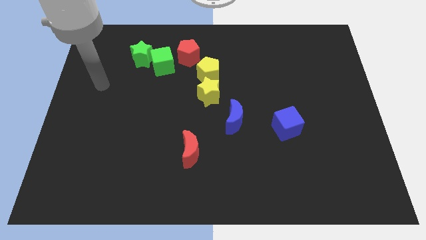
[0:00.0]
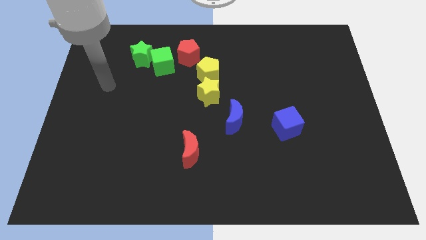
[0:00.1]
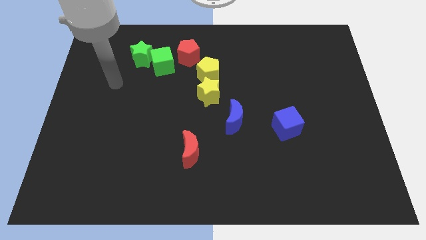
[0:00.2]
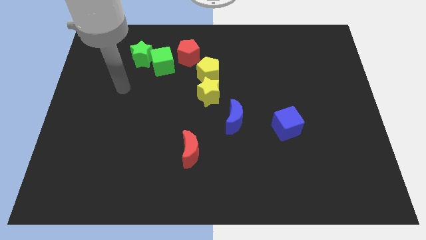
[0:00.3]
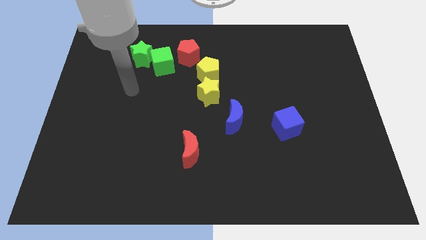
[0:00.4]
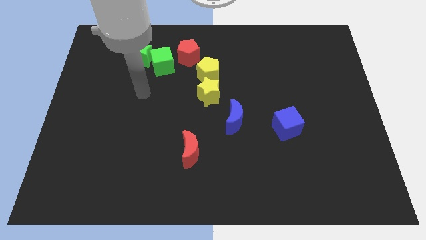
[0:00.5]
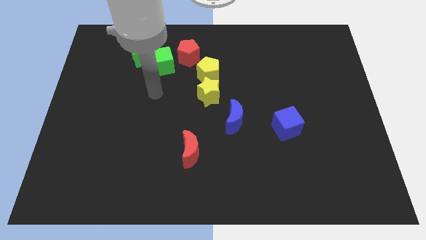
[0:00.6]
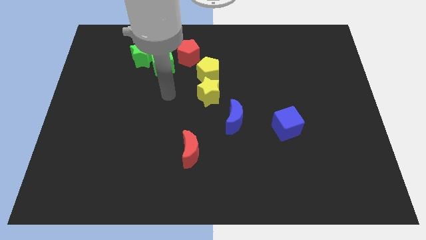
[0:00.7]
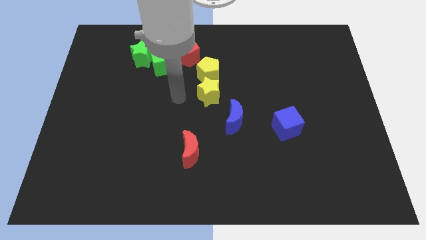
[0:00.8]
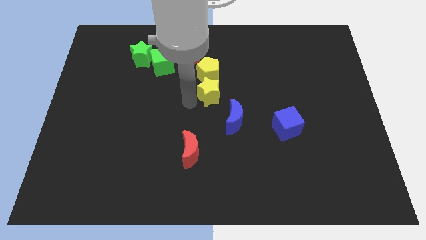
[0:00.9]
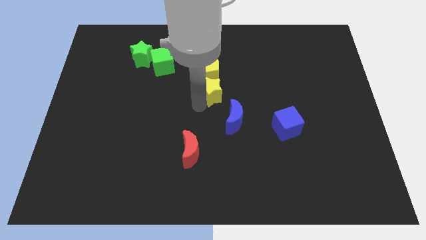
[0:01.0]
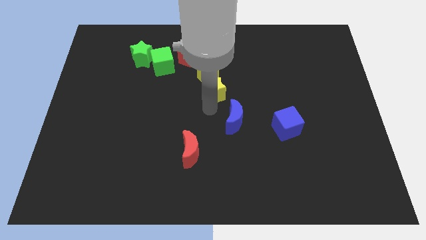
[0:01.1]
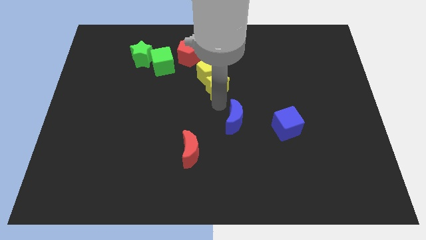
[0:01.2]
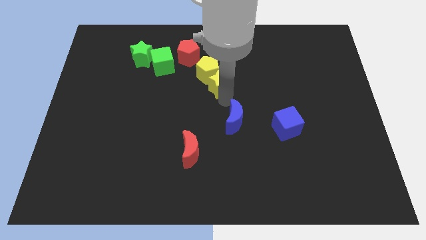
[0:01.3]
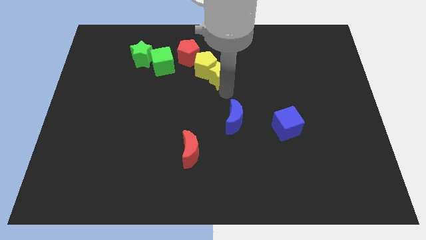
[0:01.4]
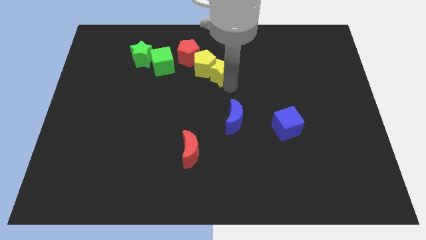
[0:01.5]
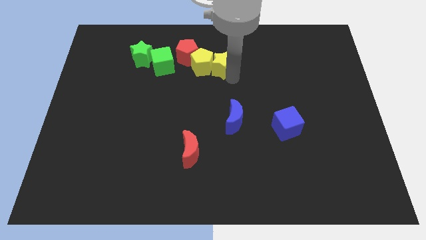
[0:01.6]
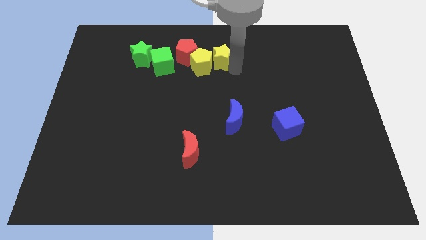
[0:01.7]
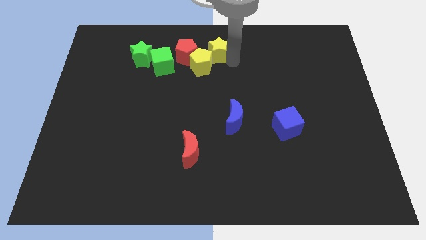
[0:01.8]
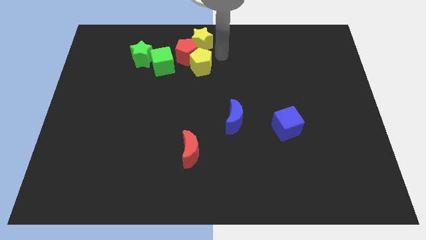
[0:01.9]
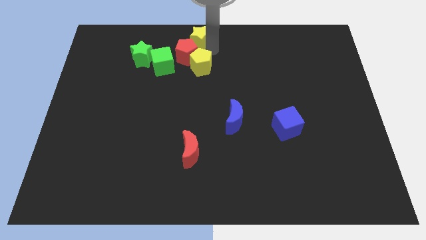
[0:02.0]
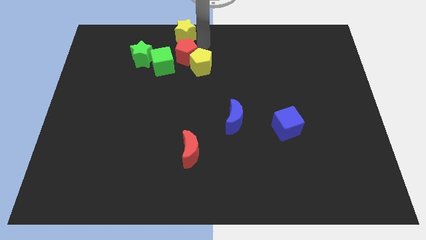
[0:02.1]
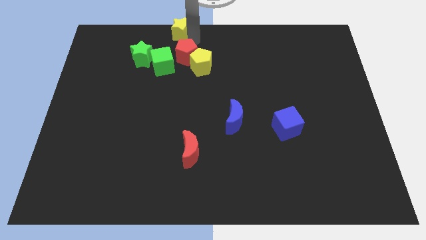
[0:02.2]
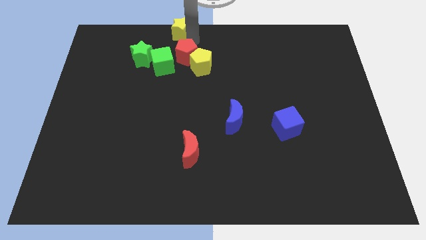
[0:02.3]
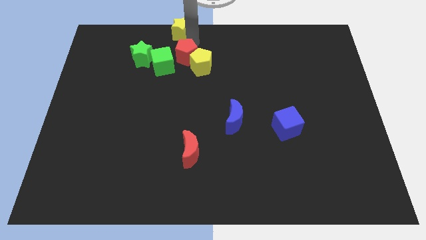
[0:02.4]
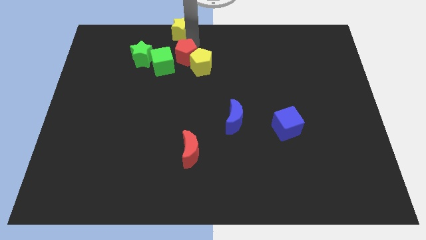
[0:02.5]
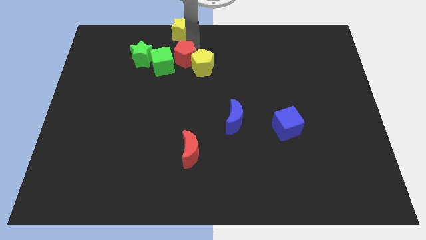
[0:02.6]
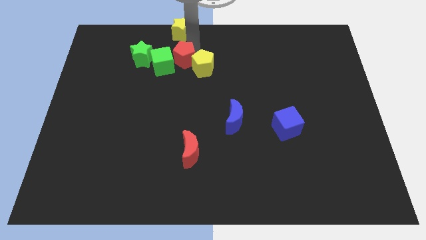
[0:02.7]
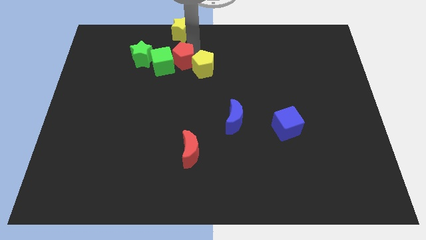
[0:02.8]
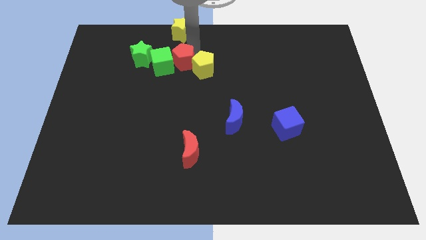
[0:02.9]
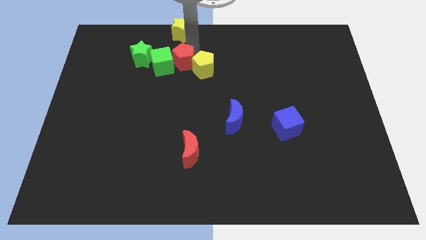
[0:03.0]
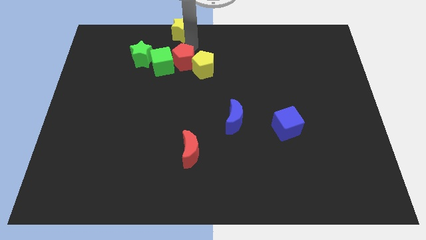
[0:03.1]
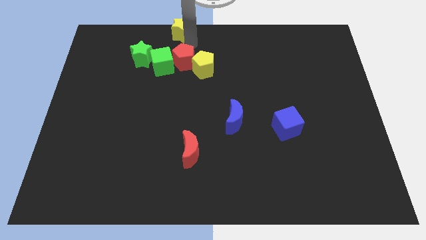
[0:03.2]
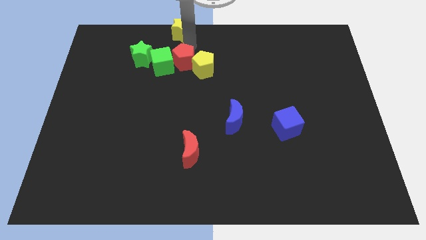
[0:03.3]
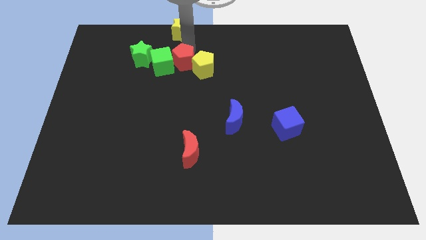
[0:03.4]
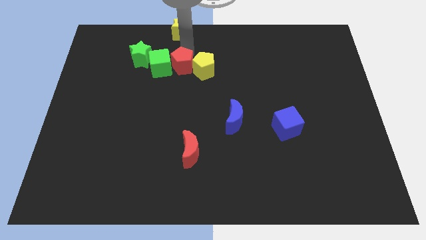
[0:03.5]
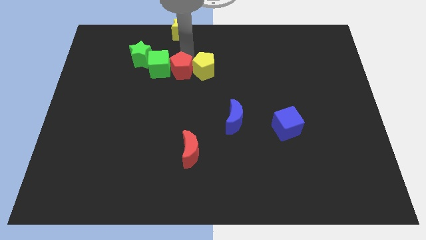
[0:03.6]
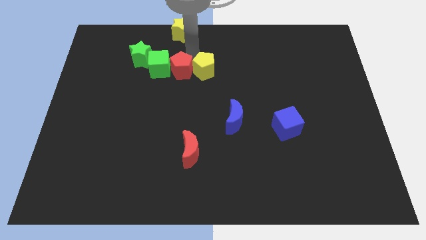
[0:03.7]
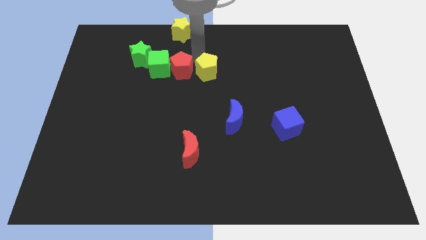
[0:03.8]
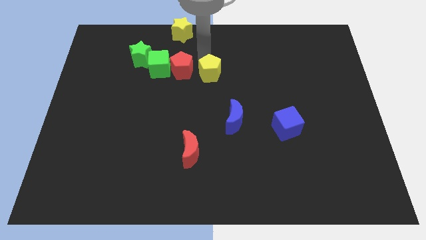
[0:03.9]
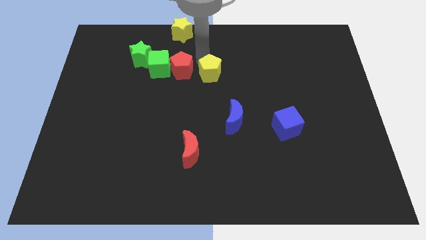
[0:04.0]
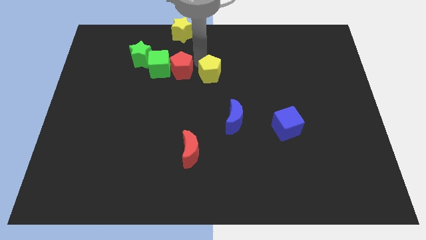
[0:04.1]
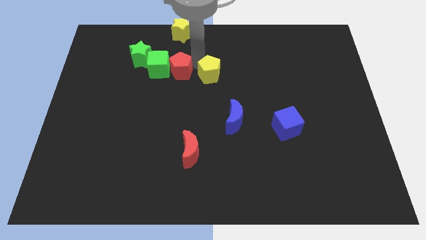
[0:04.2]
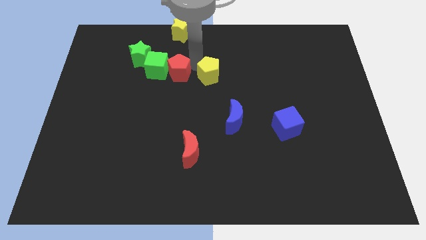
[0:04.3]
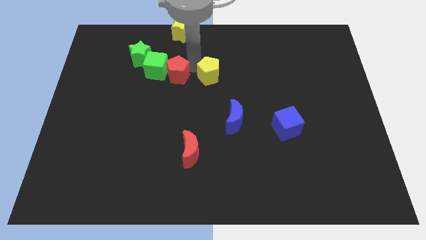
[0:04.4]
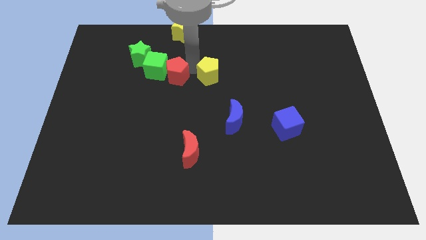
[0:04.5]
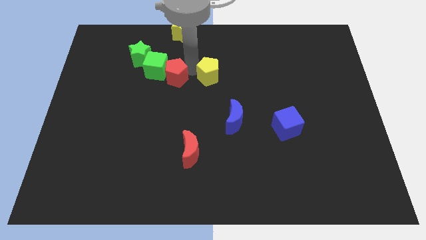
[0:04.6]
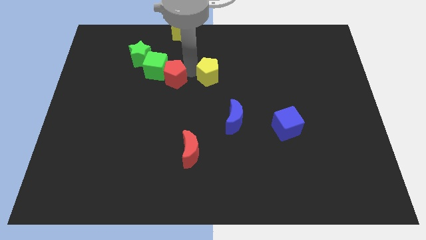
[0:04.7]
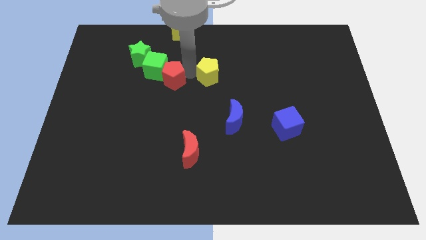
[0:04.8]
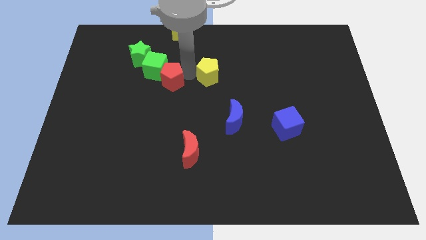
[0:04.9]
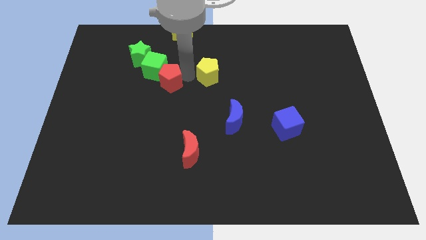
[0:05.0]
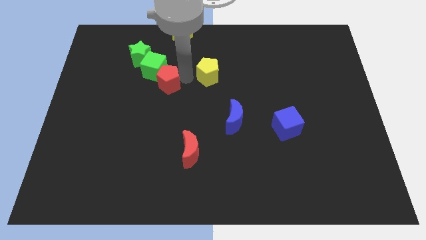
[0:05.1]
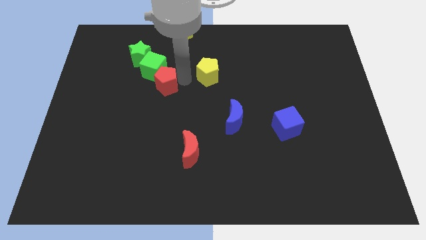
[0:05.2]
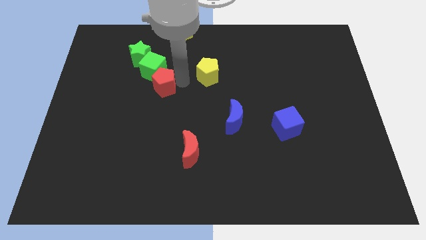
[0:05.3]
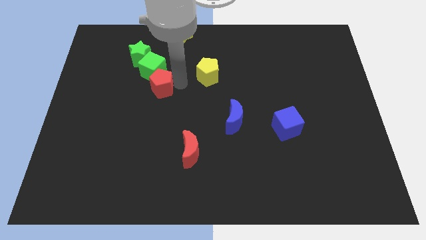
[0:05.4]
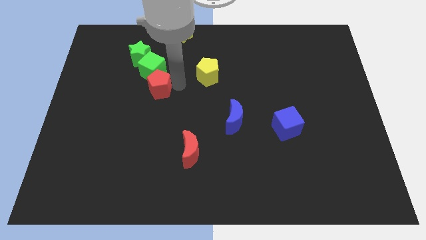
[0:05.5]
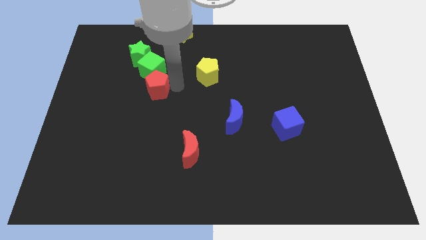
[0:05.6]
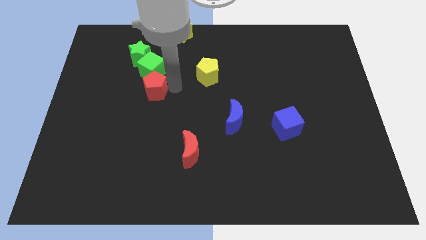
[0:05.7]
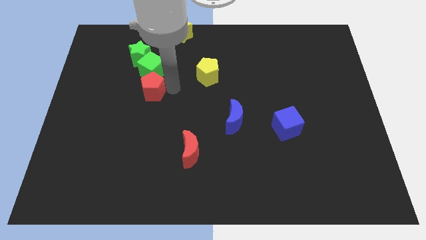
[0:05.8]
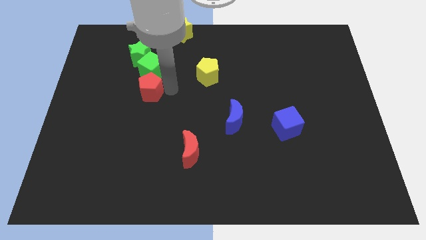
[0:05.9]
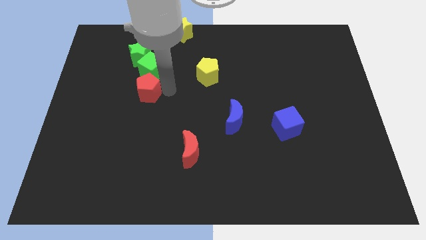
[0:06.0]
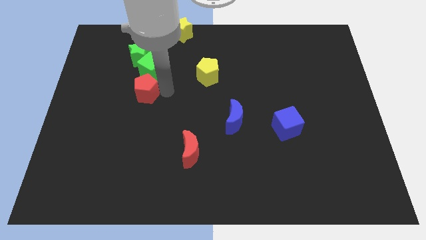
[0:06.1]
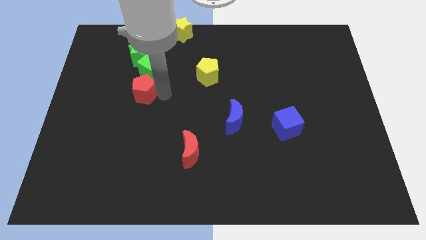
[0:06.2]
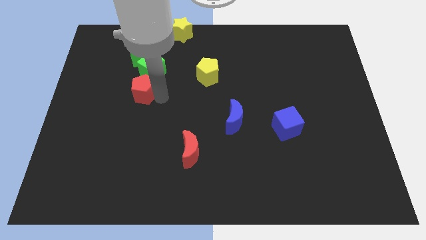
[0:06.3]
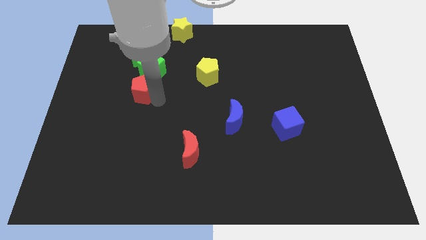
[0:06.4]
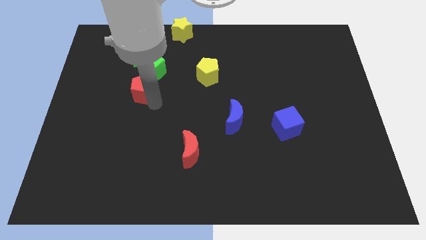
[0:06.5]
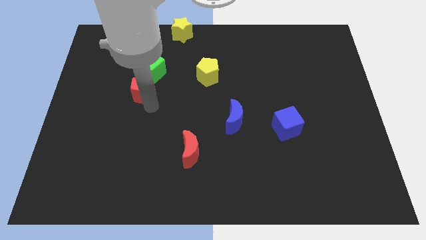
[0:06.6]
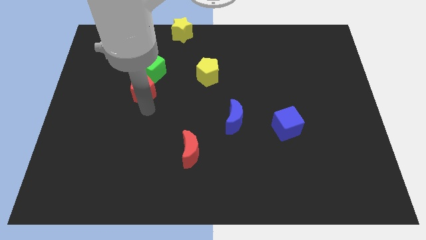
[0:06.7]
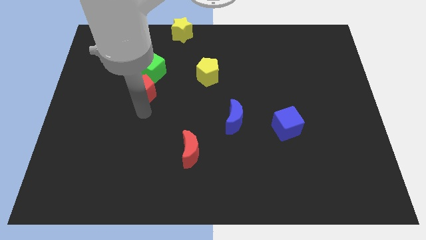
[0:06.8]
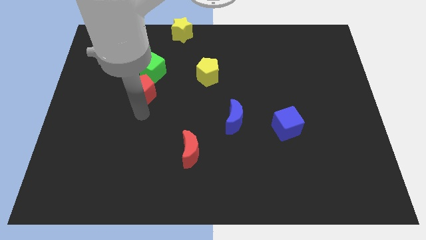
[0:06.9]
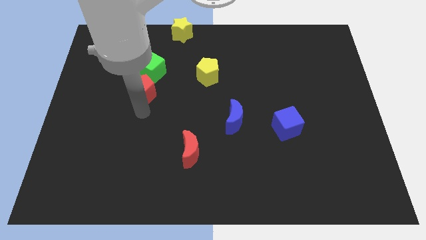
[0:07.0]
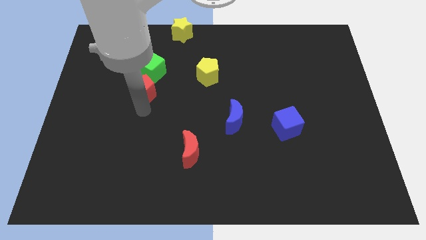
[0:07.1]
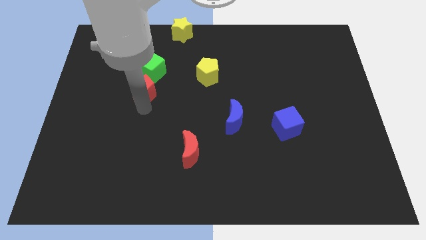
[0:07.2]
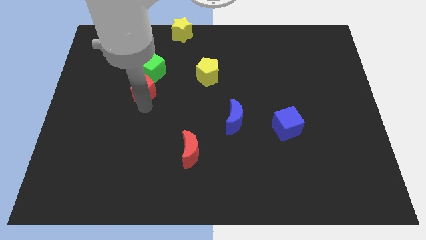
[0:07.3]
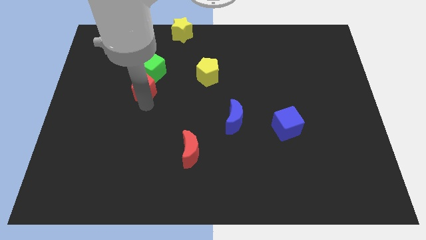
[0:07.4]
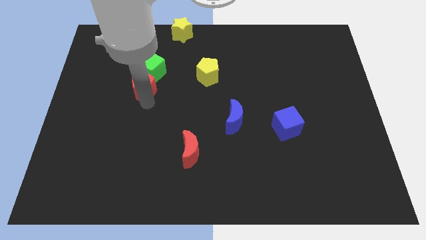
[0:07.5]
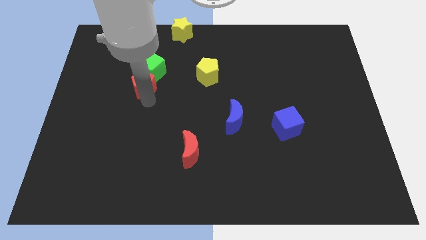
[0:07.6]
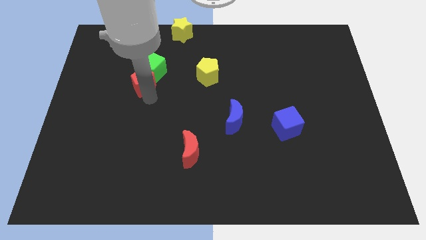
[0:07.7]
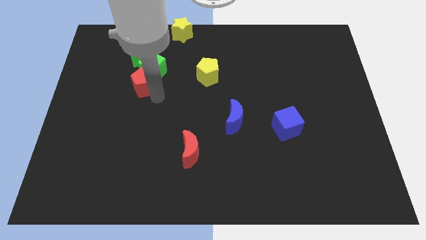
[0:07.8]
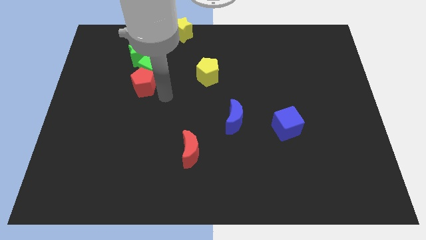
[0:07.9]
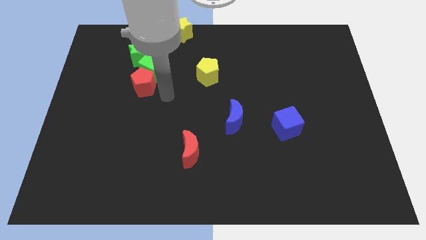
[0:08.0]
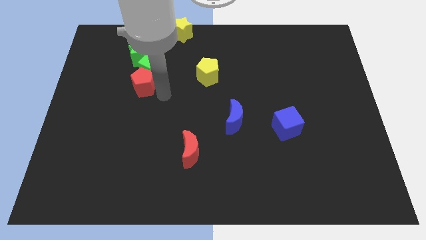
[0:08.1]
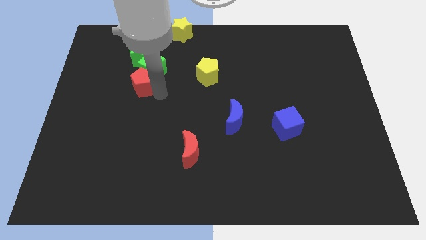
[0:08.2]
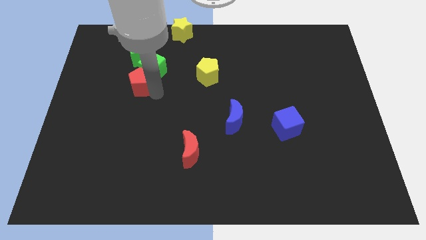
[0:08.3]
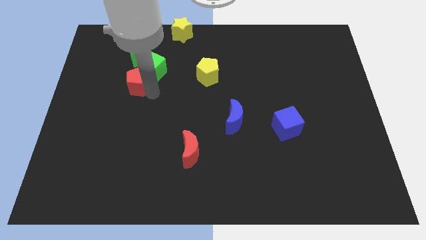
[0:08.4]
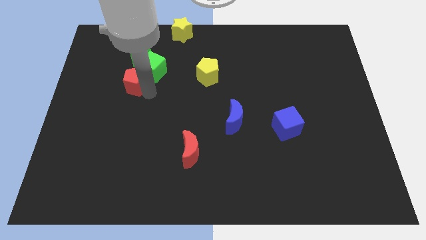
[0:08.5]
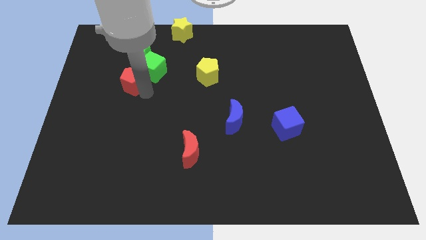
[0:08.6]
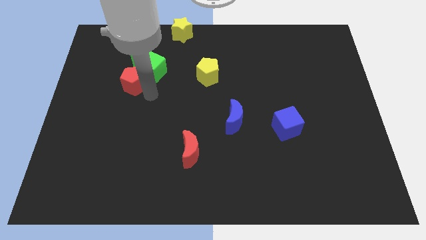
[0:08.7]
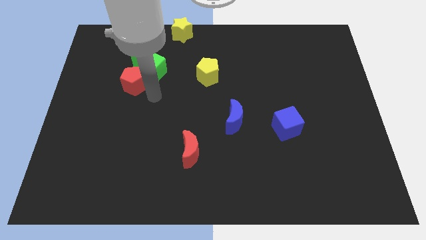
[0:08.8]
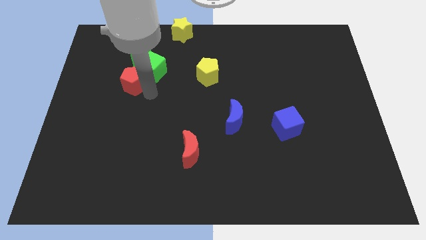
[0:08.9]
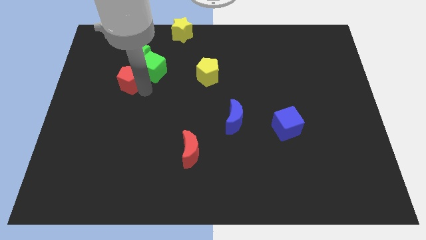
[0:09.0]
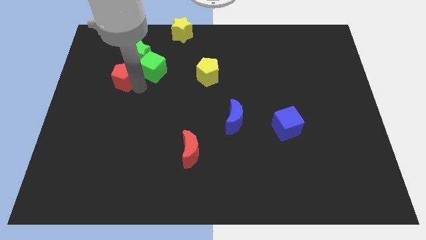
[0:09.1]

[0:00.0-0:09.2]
push the red pentagon to the bottom left of the green star
